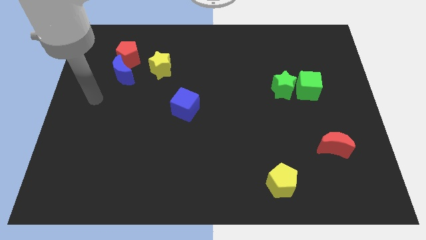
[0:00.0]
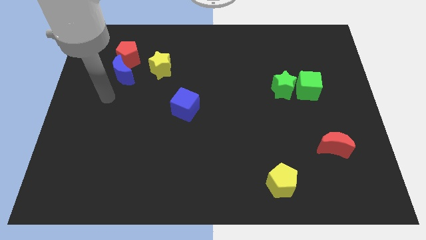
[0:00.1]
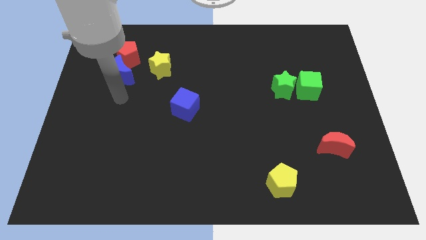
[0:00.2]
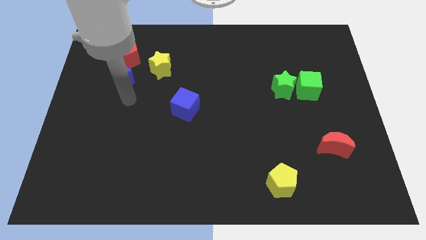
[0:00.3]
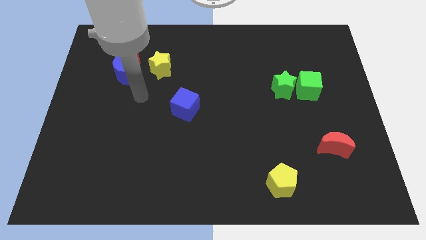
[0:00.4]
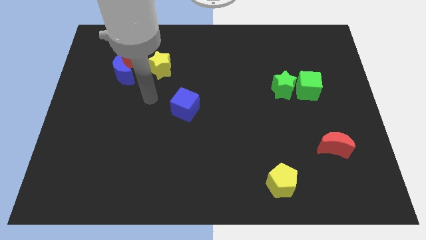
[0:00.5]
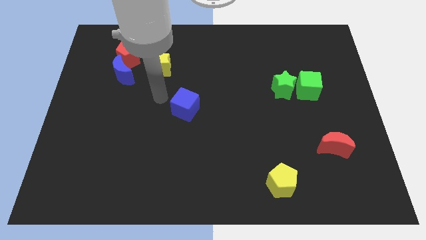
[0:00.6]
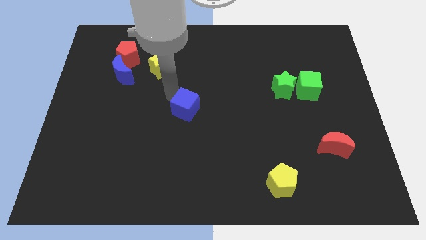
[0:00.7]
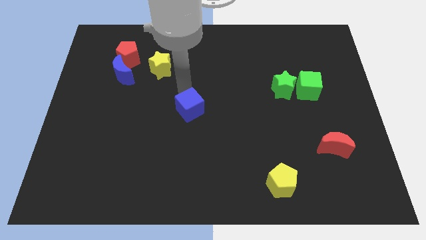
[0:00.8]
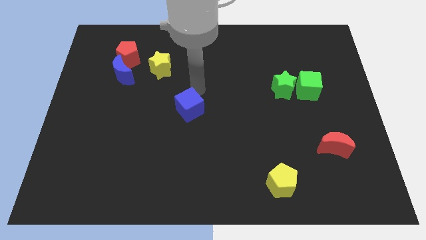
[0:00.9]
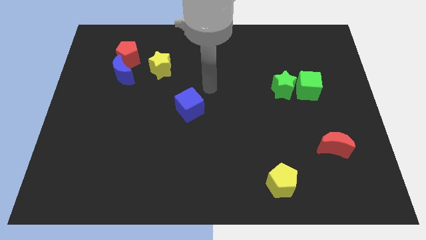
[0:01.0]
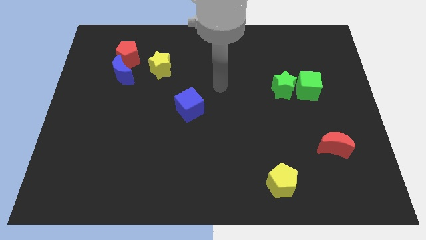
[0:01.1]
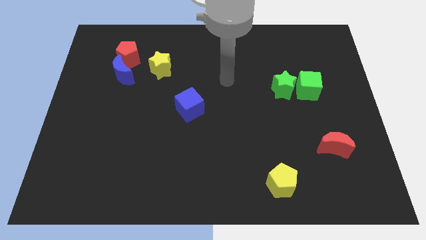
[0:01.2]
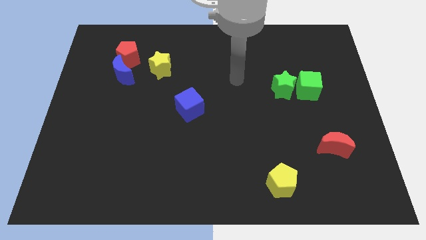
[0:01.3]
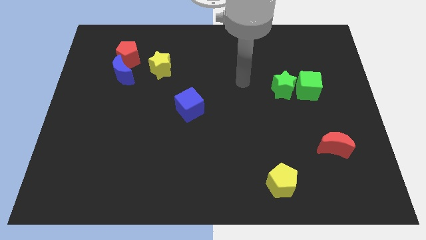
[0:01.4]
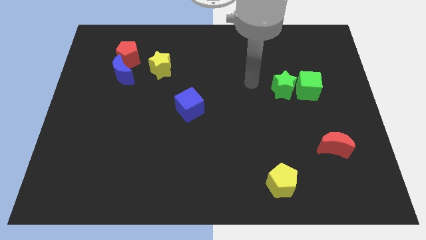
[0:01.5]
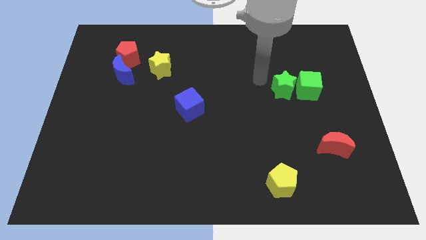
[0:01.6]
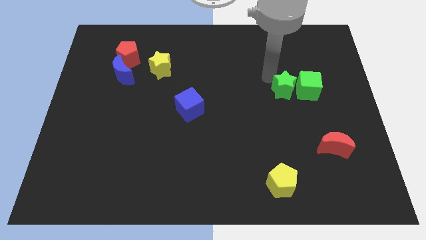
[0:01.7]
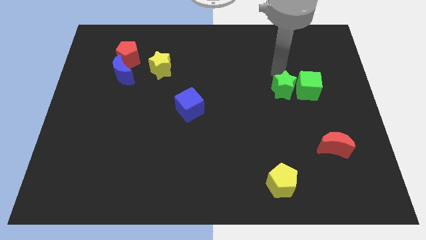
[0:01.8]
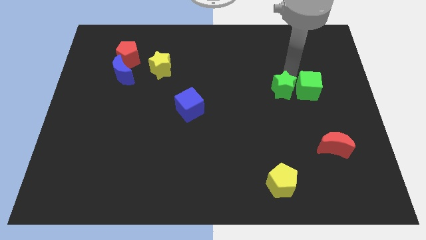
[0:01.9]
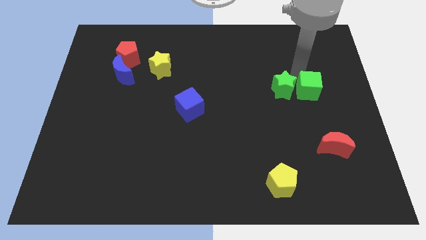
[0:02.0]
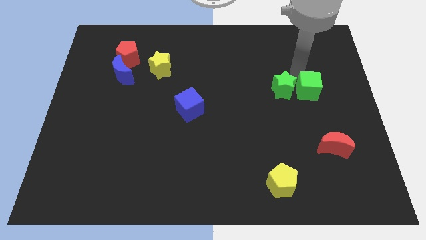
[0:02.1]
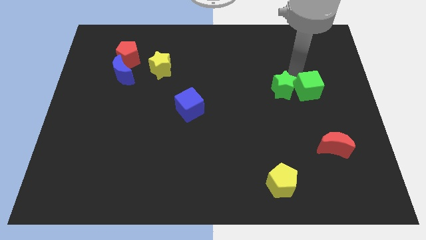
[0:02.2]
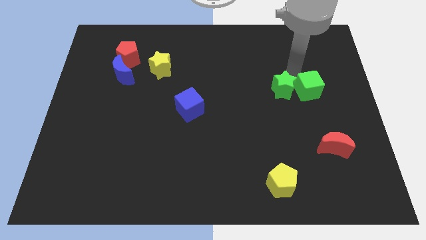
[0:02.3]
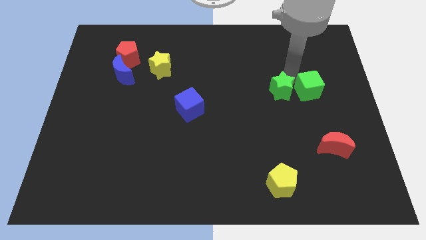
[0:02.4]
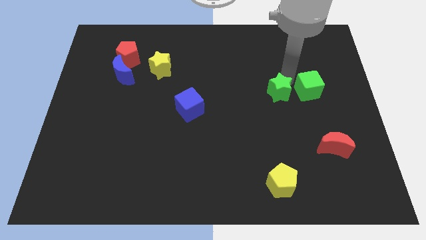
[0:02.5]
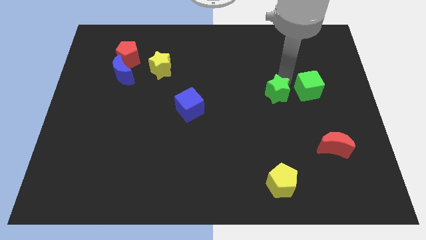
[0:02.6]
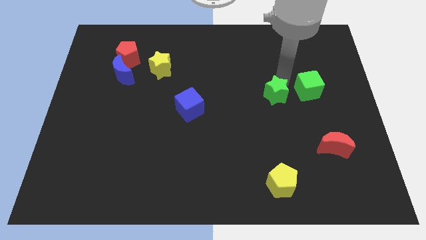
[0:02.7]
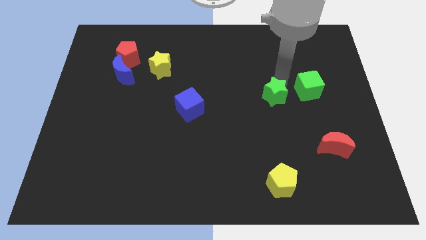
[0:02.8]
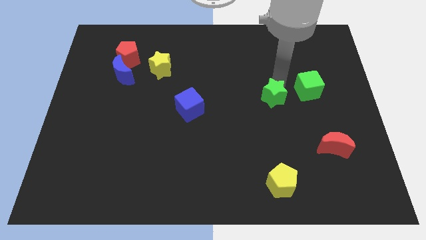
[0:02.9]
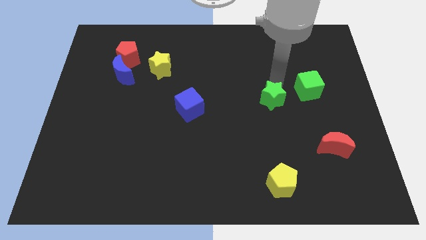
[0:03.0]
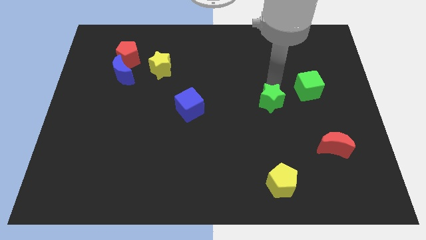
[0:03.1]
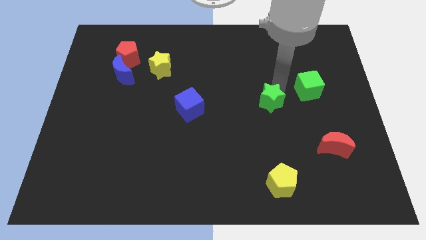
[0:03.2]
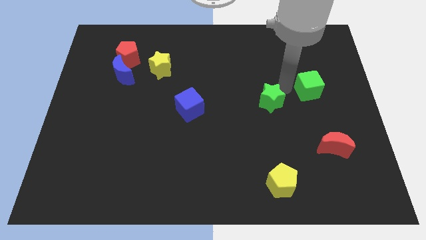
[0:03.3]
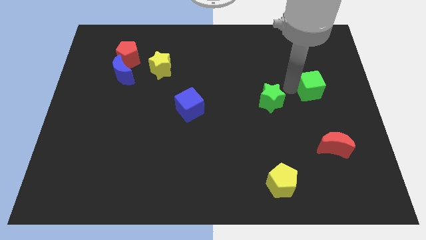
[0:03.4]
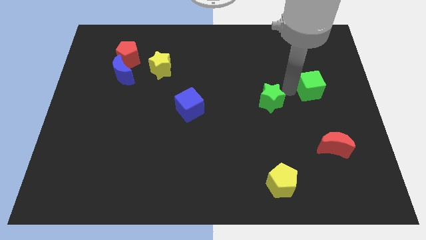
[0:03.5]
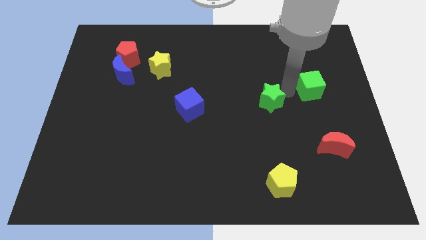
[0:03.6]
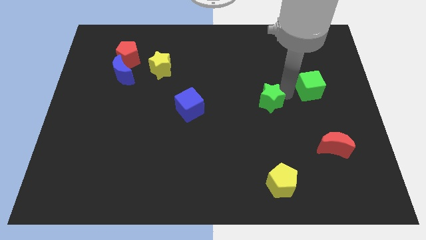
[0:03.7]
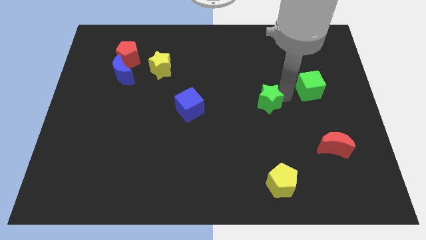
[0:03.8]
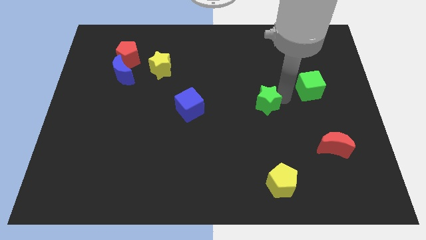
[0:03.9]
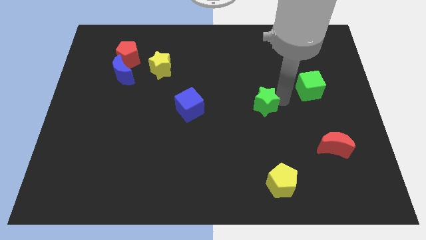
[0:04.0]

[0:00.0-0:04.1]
slightly move the green star downwards and to the left

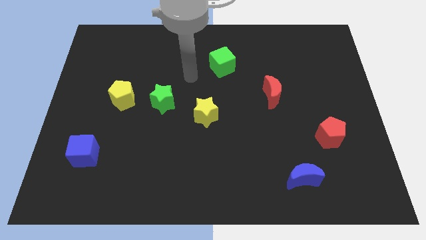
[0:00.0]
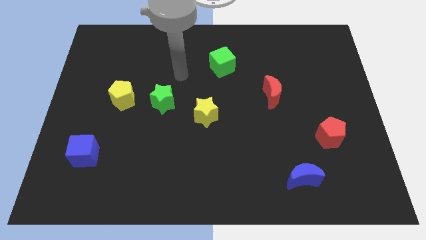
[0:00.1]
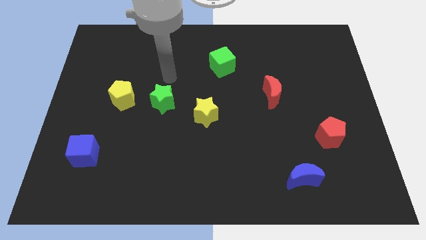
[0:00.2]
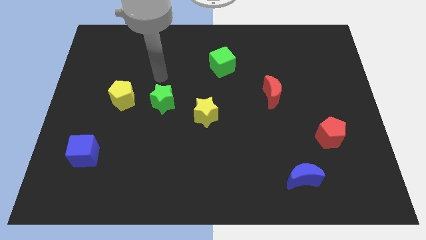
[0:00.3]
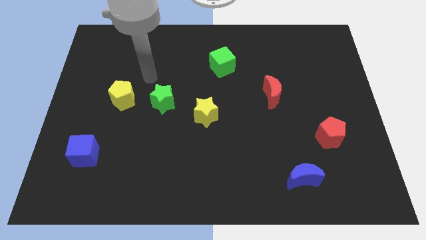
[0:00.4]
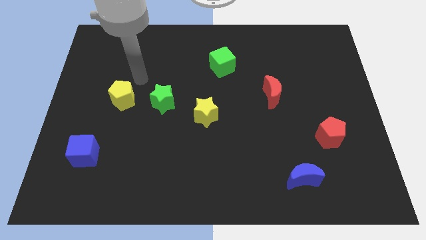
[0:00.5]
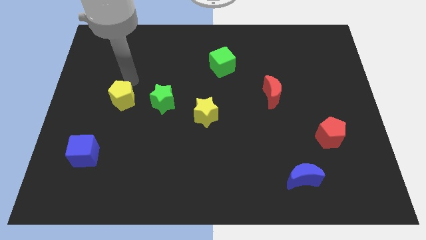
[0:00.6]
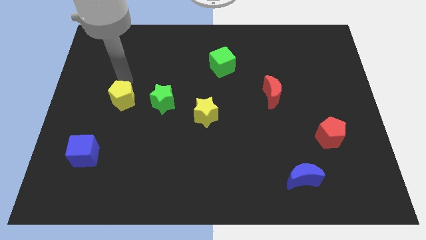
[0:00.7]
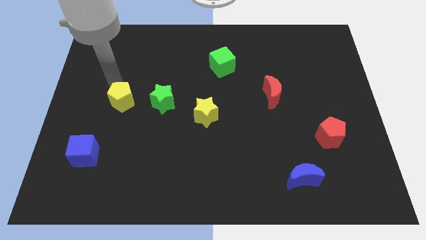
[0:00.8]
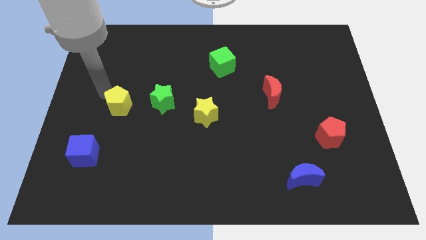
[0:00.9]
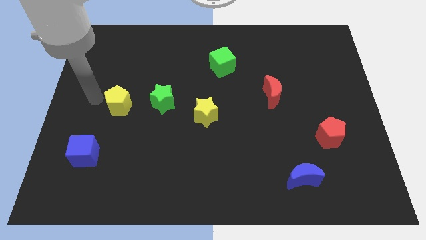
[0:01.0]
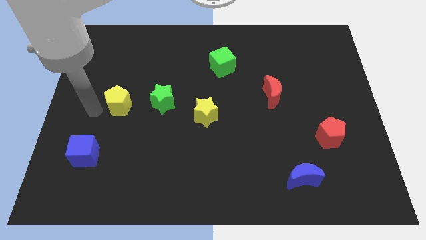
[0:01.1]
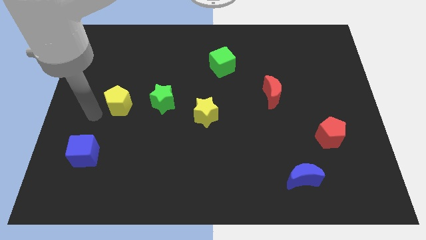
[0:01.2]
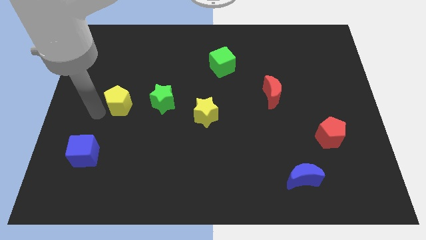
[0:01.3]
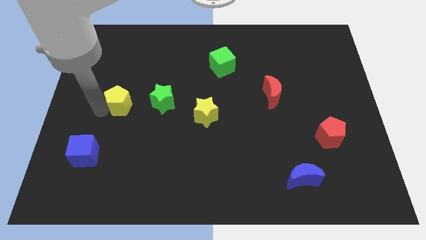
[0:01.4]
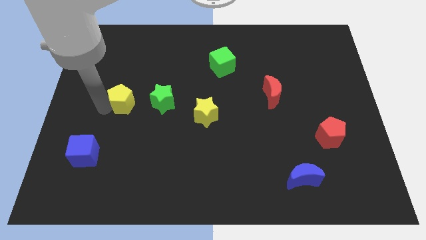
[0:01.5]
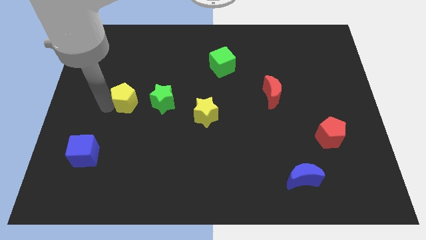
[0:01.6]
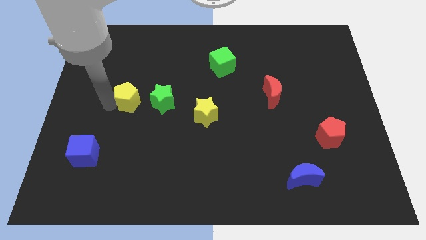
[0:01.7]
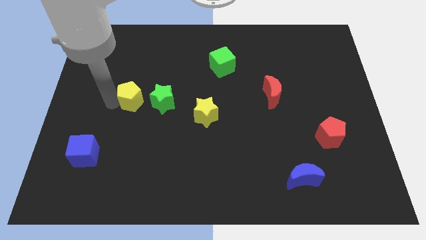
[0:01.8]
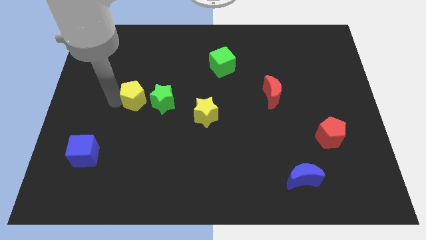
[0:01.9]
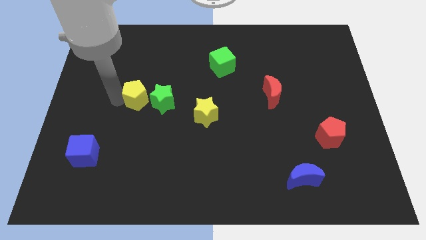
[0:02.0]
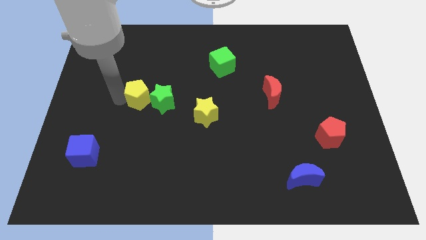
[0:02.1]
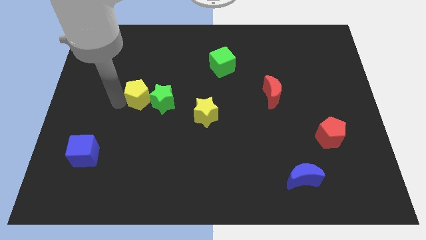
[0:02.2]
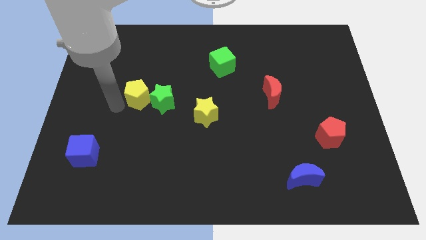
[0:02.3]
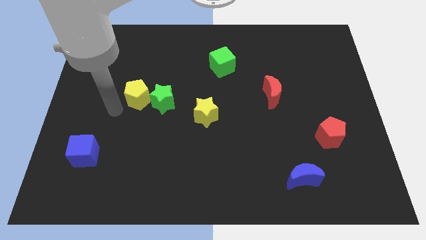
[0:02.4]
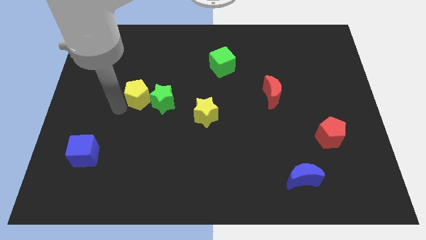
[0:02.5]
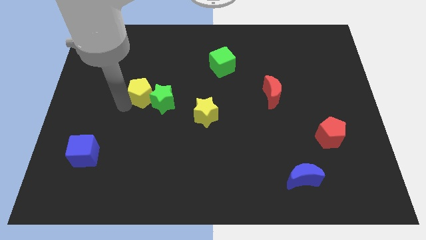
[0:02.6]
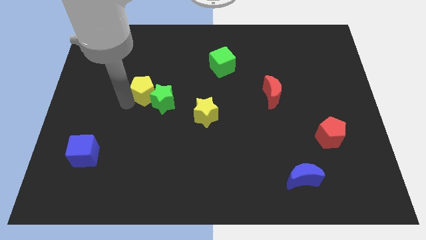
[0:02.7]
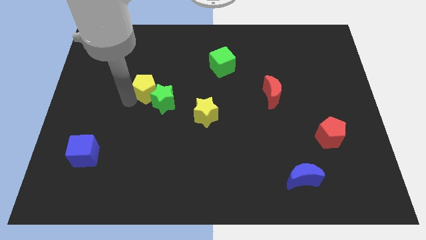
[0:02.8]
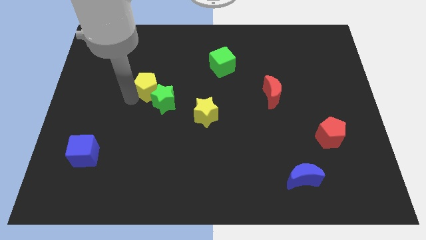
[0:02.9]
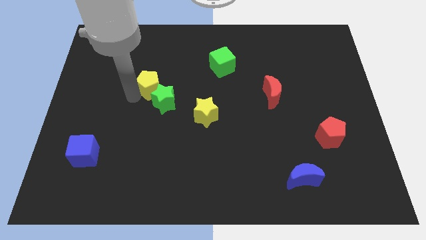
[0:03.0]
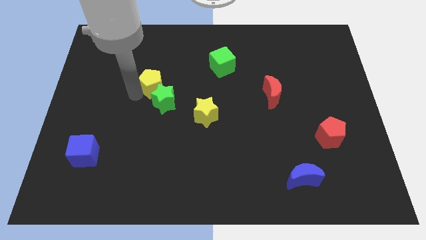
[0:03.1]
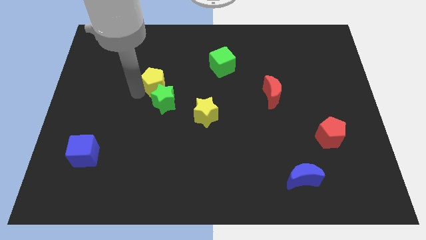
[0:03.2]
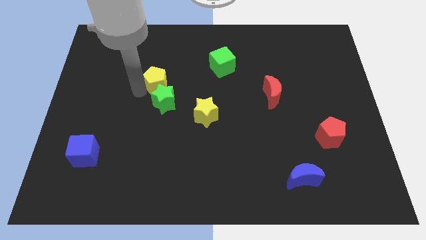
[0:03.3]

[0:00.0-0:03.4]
slightly slide the yellow pentagon right

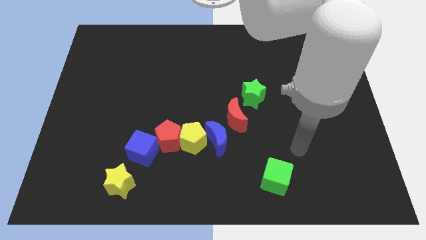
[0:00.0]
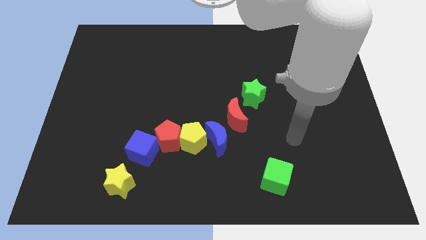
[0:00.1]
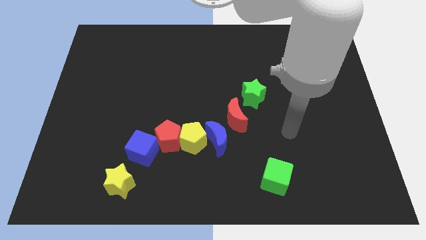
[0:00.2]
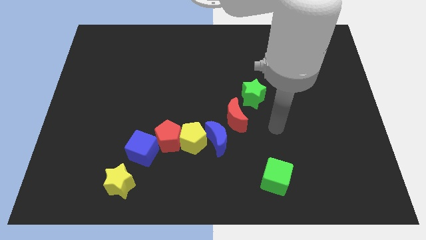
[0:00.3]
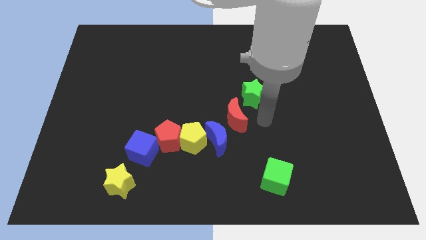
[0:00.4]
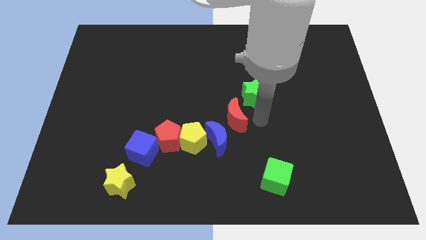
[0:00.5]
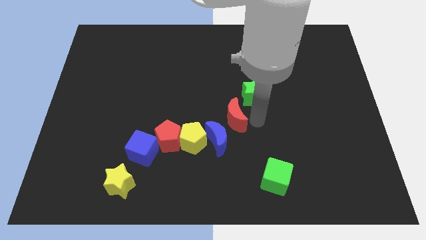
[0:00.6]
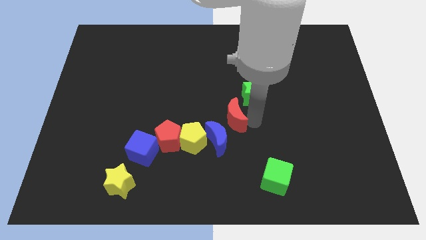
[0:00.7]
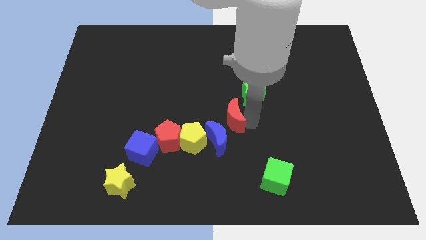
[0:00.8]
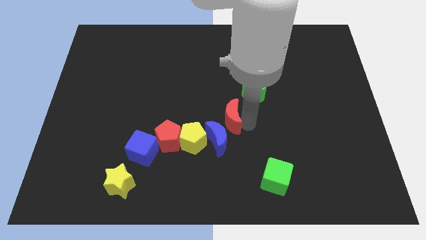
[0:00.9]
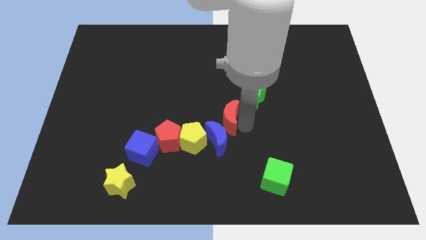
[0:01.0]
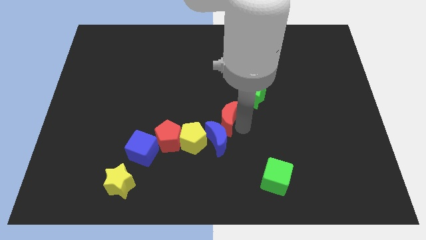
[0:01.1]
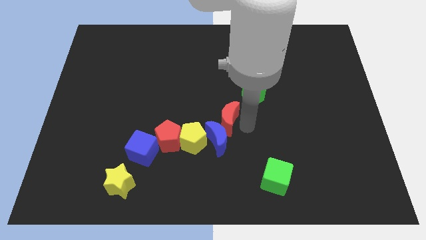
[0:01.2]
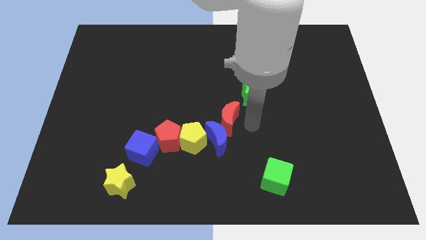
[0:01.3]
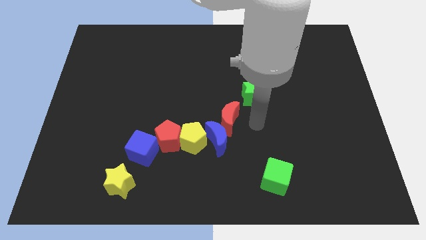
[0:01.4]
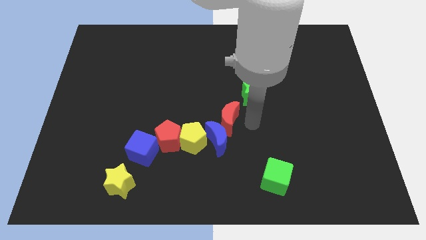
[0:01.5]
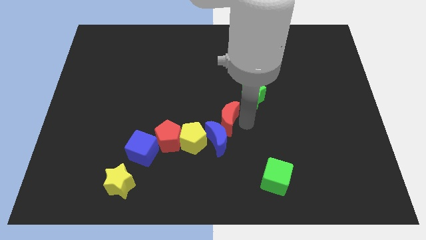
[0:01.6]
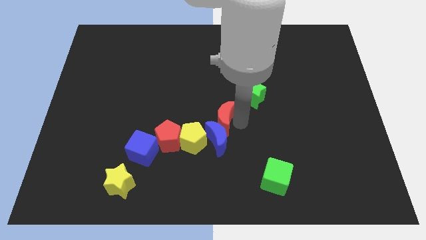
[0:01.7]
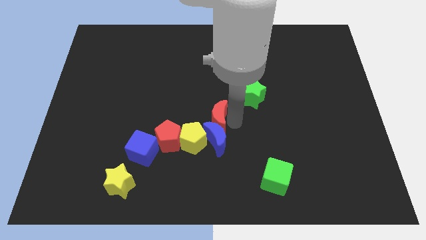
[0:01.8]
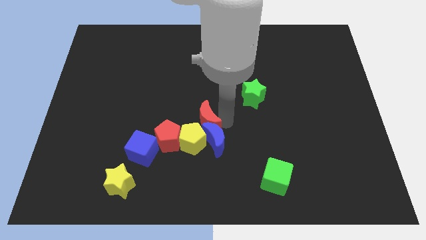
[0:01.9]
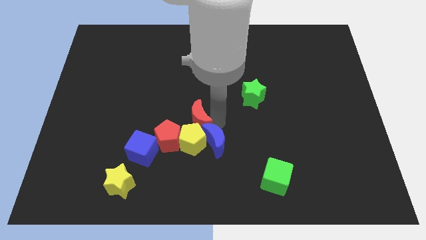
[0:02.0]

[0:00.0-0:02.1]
slightly slide the red moon to the left
